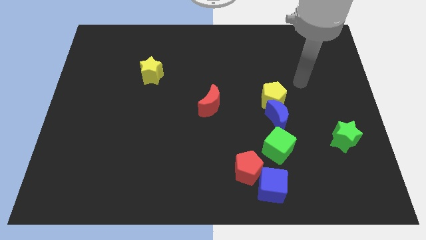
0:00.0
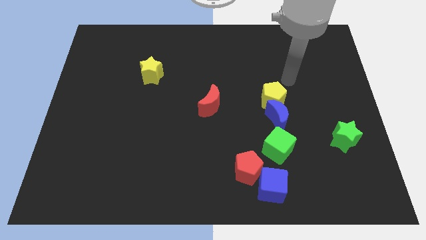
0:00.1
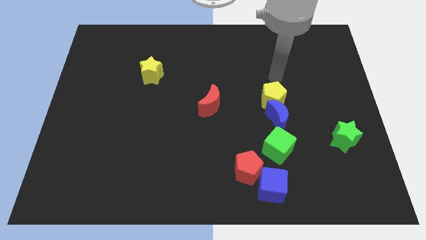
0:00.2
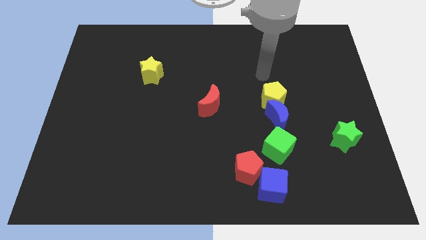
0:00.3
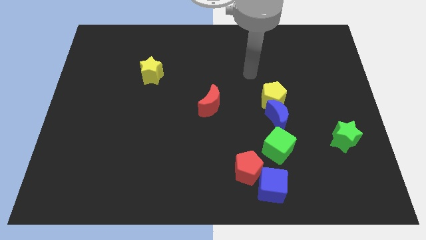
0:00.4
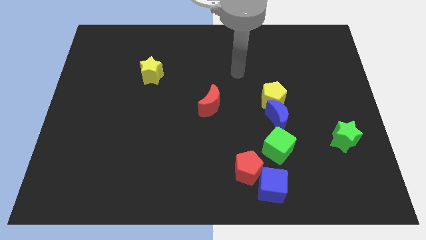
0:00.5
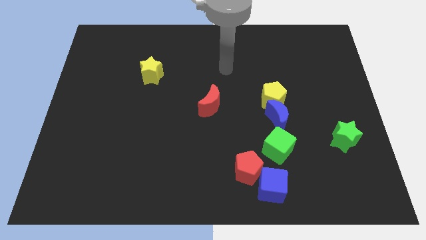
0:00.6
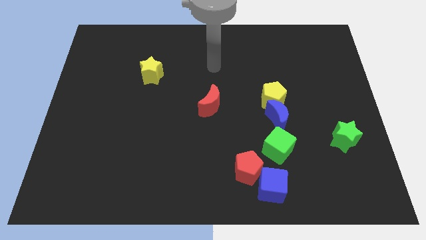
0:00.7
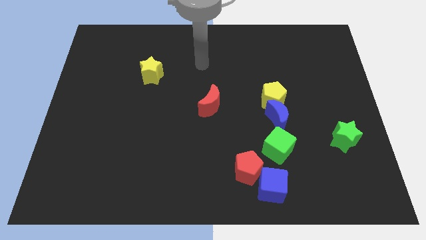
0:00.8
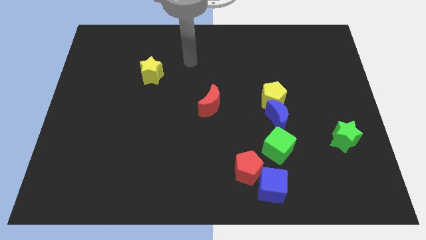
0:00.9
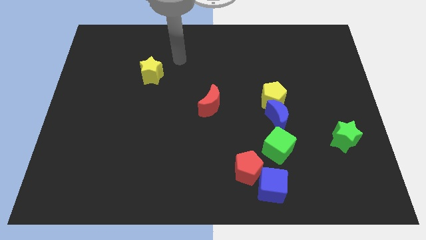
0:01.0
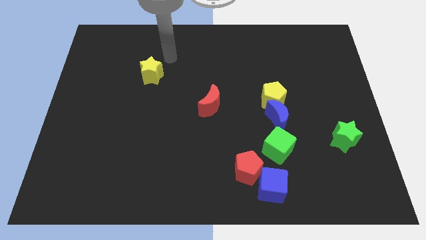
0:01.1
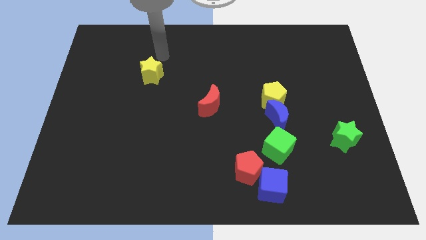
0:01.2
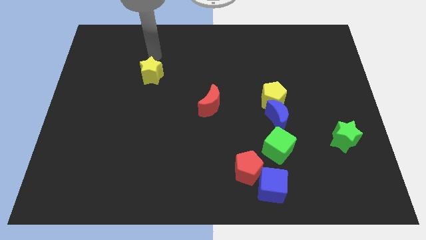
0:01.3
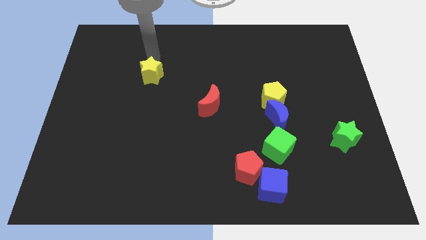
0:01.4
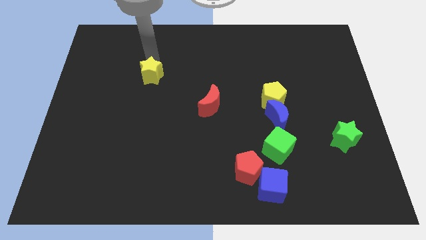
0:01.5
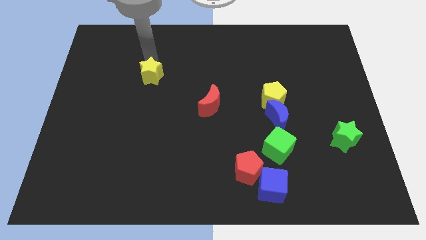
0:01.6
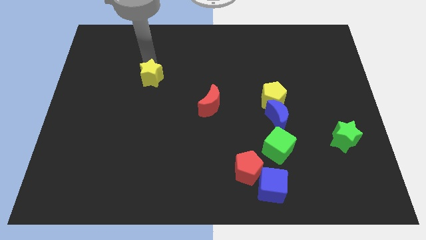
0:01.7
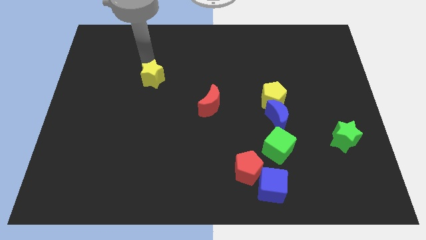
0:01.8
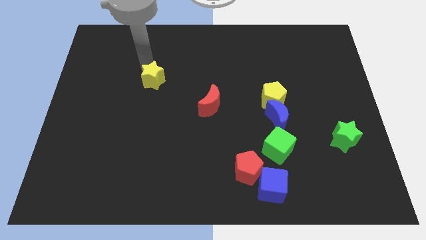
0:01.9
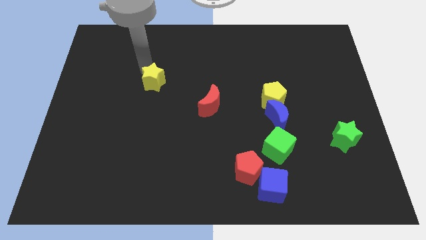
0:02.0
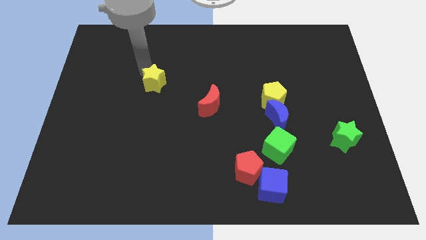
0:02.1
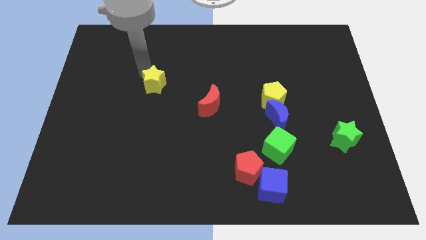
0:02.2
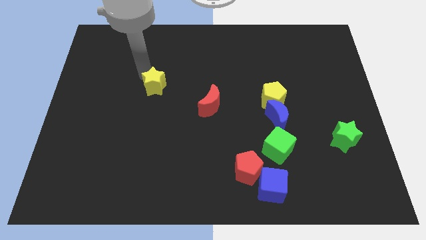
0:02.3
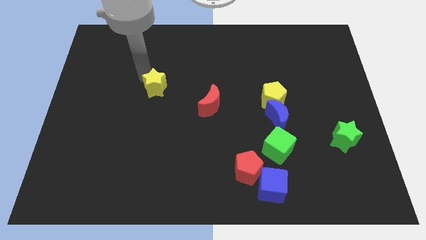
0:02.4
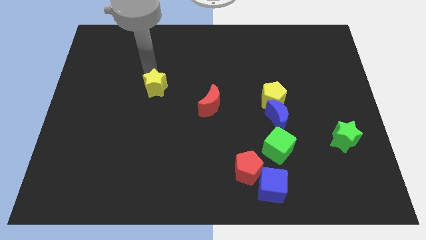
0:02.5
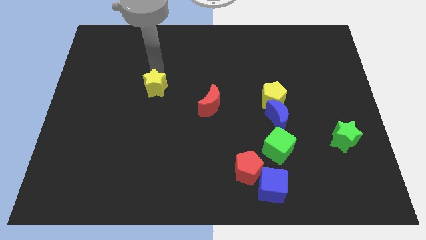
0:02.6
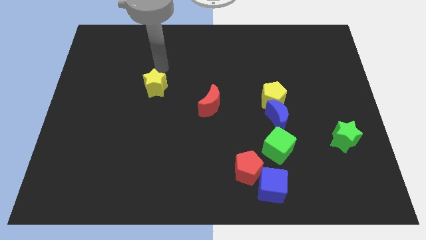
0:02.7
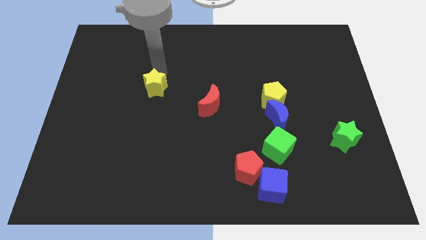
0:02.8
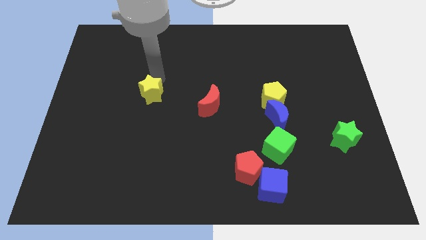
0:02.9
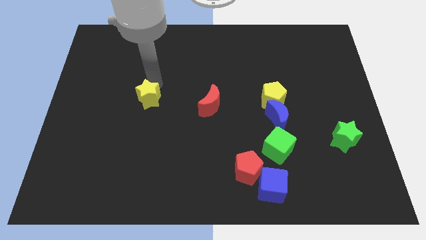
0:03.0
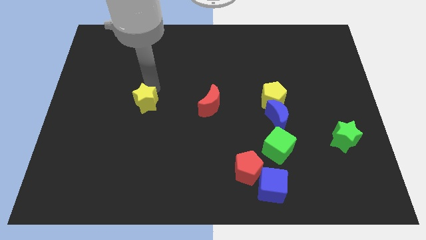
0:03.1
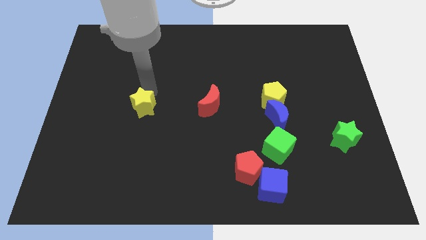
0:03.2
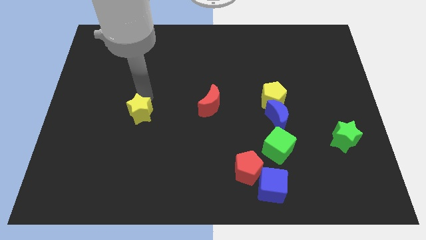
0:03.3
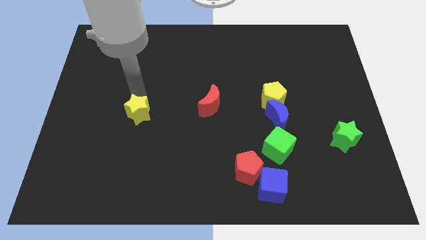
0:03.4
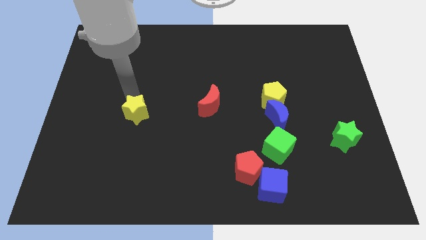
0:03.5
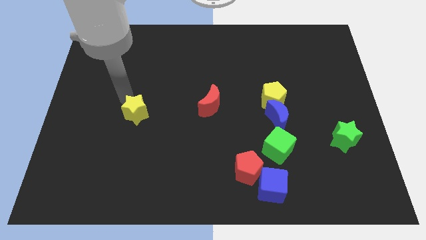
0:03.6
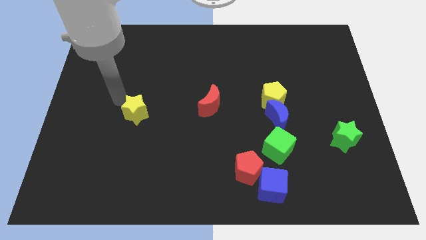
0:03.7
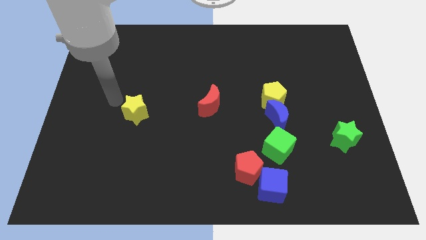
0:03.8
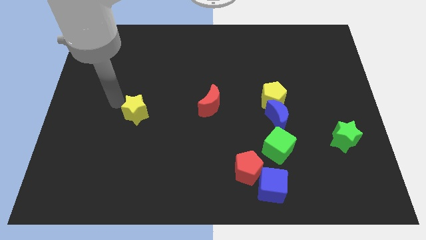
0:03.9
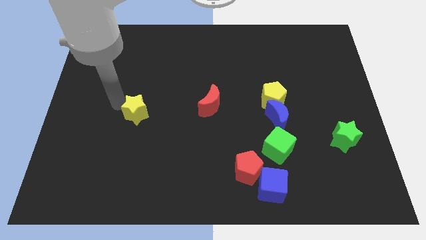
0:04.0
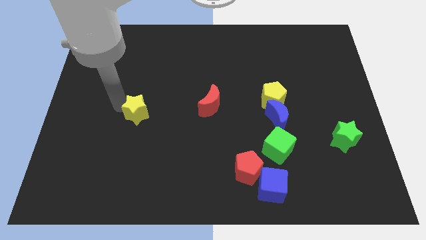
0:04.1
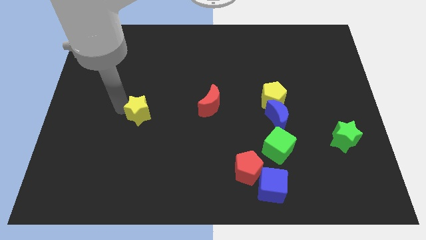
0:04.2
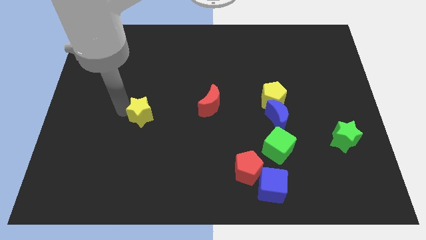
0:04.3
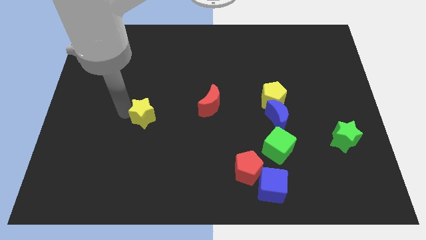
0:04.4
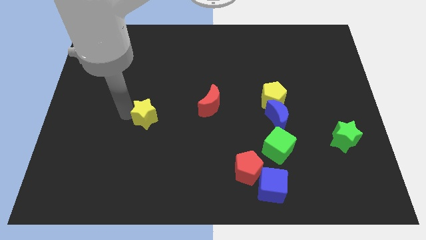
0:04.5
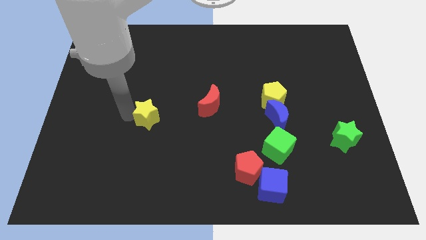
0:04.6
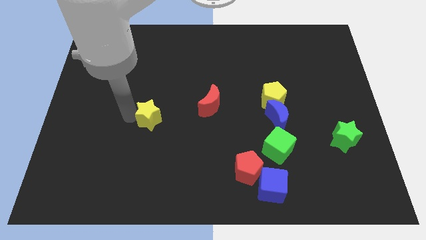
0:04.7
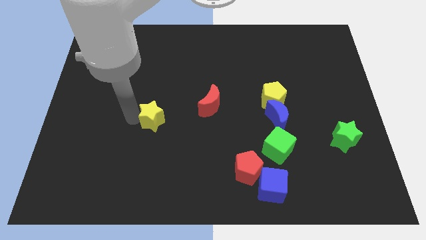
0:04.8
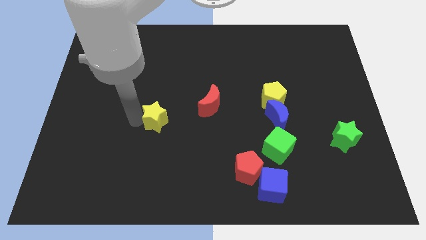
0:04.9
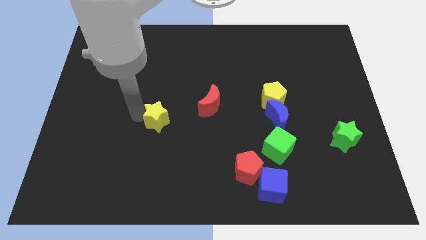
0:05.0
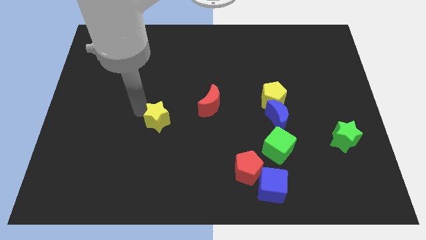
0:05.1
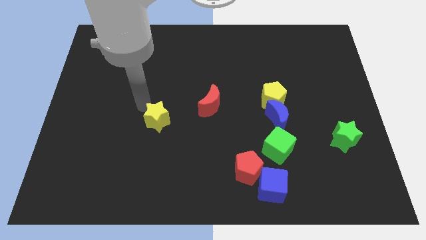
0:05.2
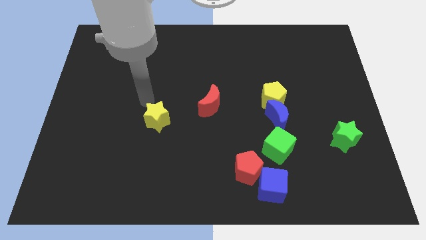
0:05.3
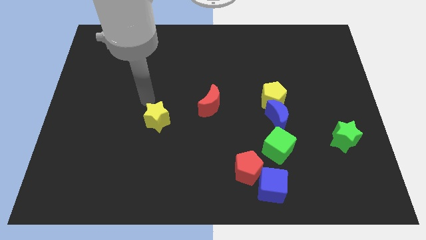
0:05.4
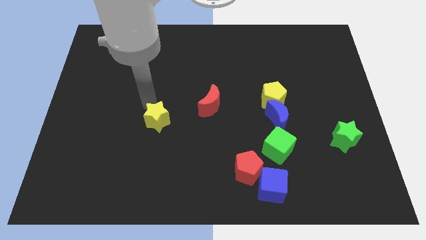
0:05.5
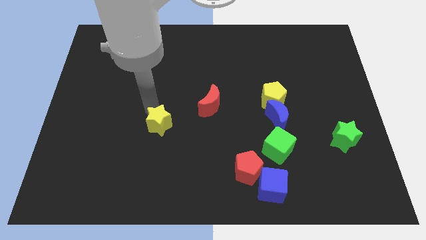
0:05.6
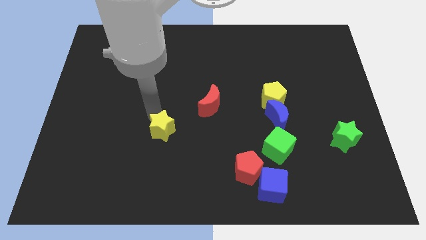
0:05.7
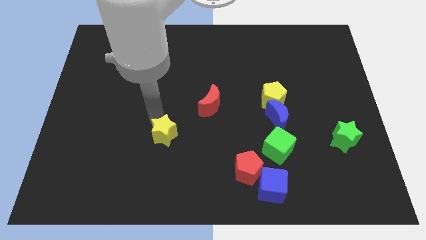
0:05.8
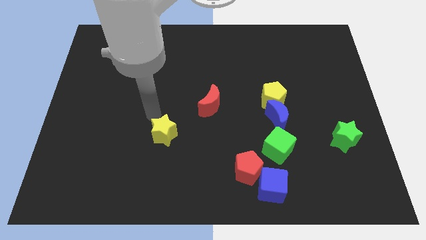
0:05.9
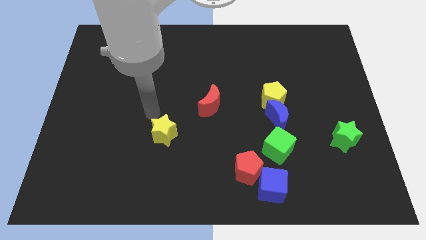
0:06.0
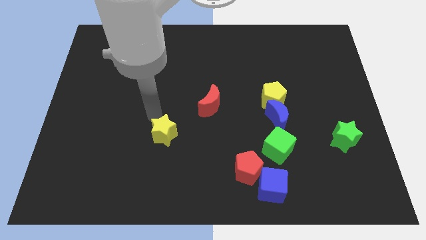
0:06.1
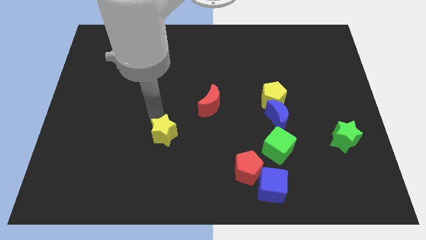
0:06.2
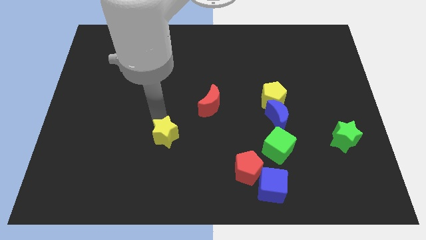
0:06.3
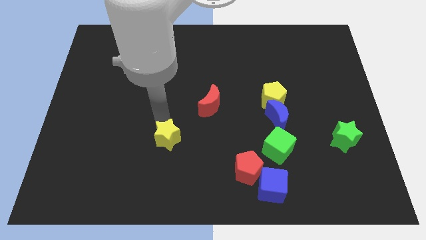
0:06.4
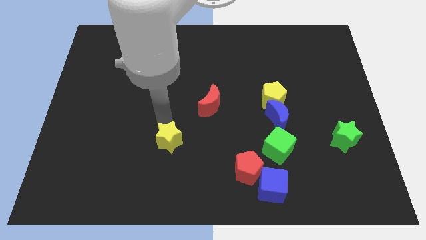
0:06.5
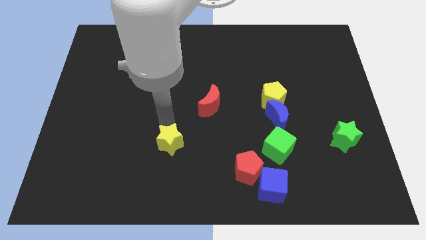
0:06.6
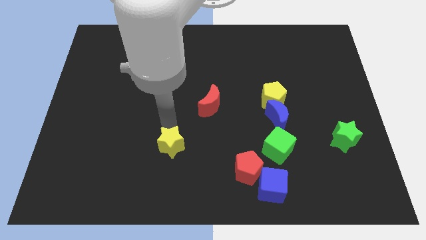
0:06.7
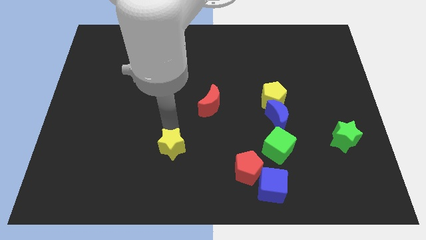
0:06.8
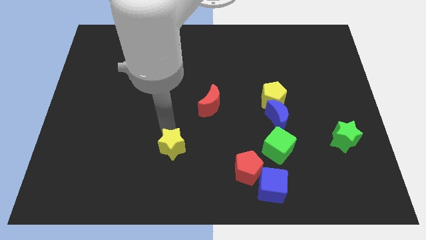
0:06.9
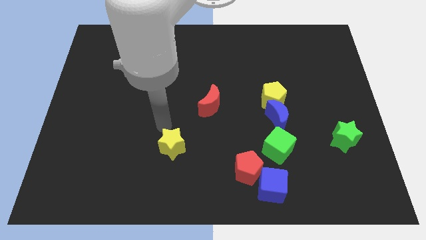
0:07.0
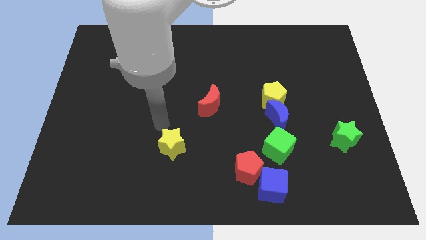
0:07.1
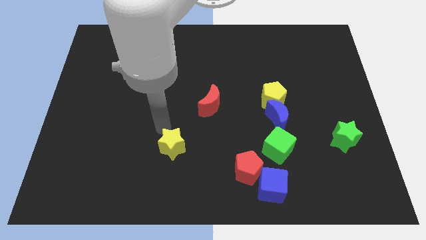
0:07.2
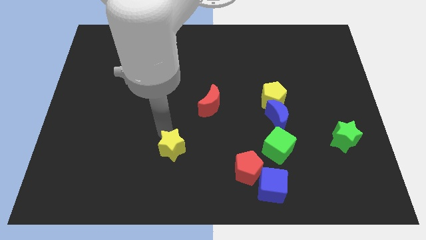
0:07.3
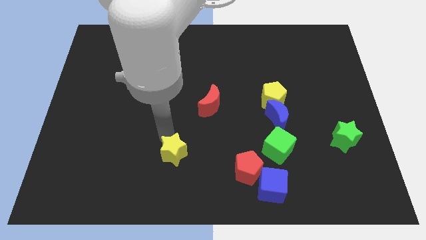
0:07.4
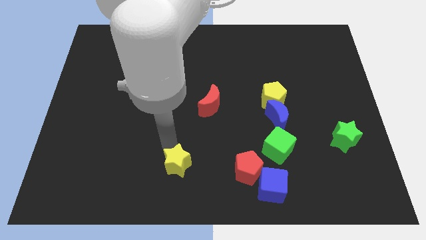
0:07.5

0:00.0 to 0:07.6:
put the yellow star to the bottom
